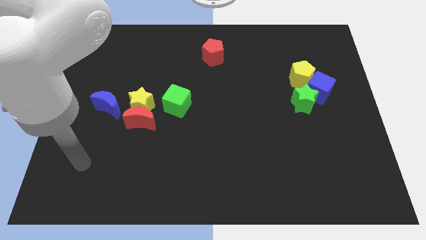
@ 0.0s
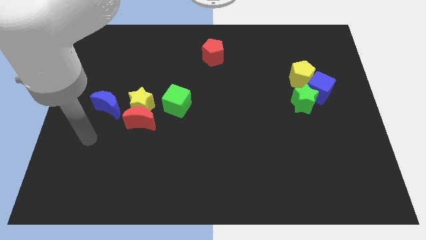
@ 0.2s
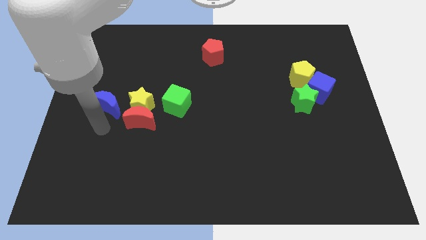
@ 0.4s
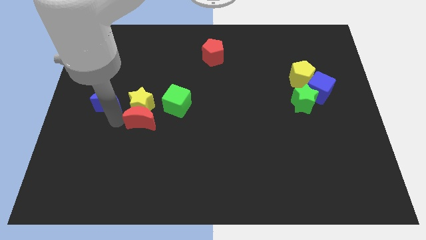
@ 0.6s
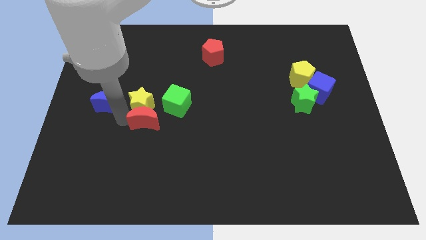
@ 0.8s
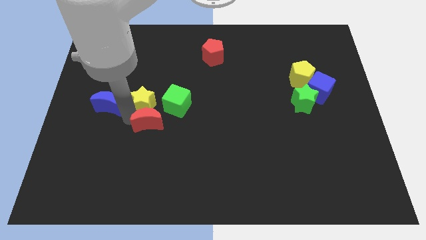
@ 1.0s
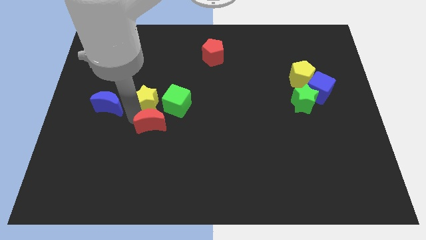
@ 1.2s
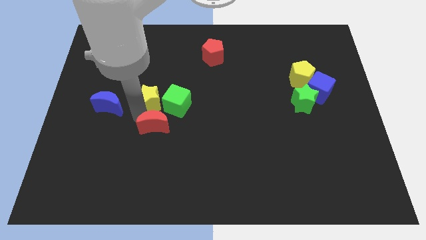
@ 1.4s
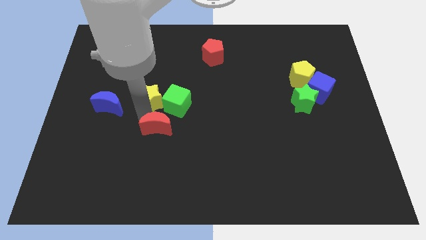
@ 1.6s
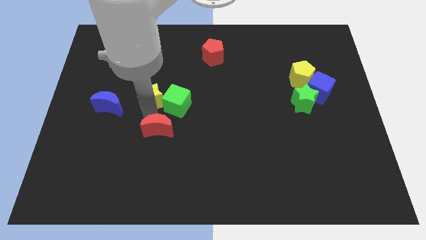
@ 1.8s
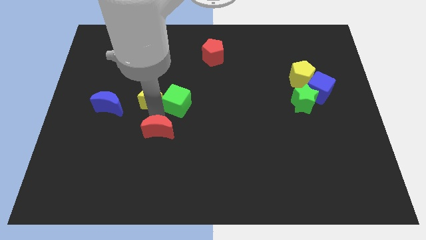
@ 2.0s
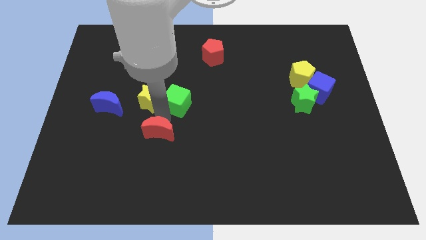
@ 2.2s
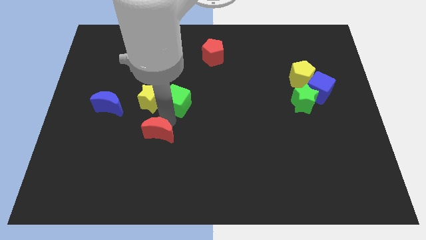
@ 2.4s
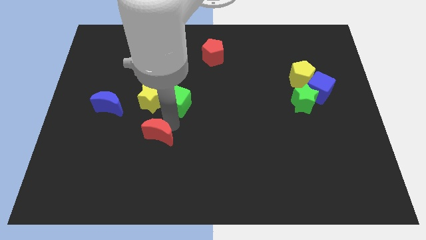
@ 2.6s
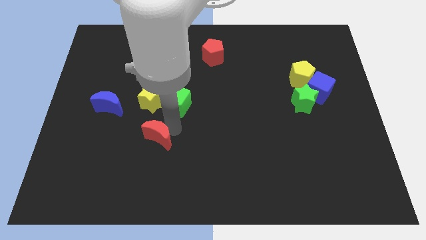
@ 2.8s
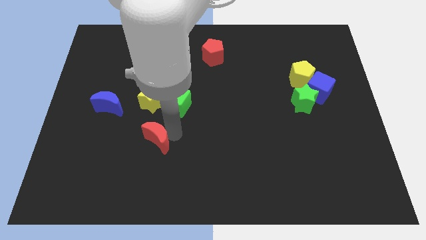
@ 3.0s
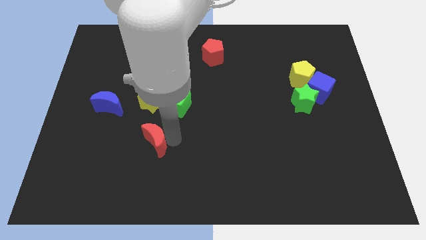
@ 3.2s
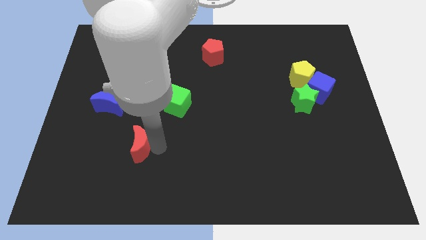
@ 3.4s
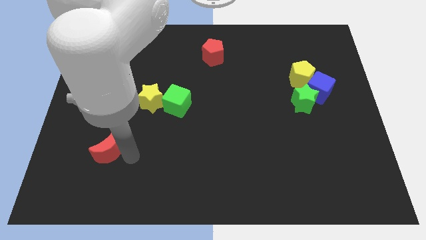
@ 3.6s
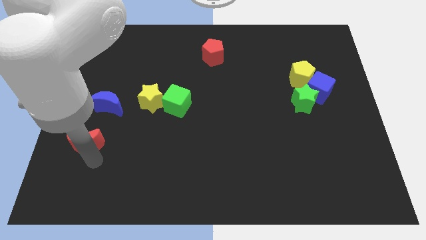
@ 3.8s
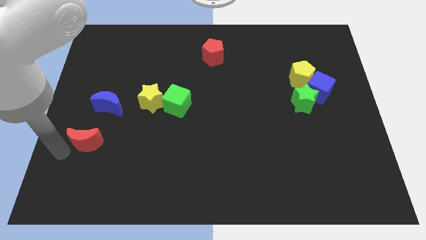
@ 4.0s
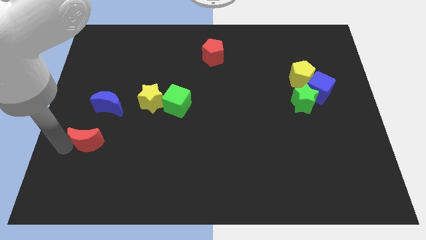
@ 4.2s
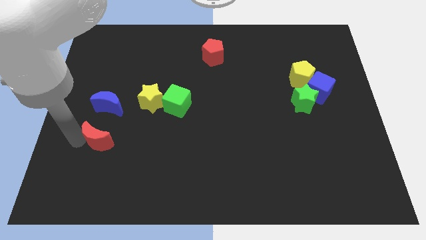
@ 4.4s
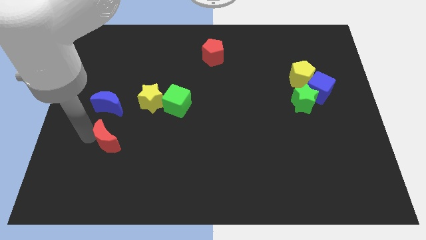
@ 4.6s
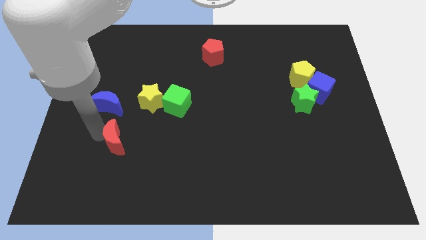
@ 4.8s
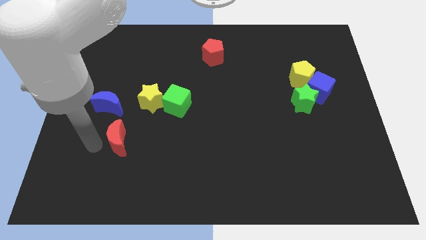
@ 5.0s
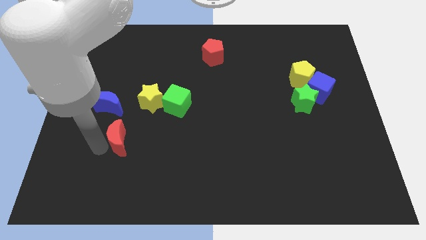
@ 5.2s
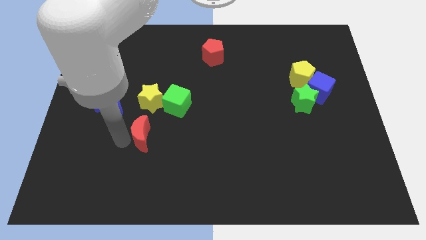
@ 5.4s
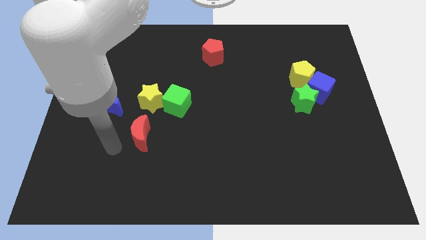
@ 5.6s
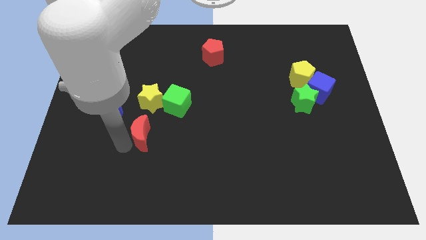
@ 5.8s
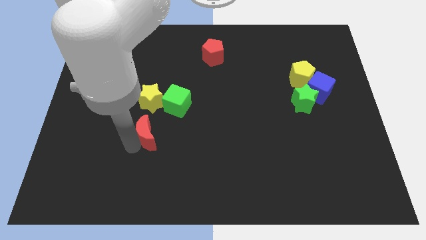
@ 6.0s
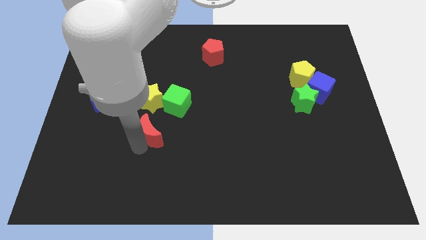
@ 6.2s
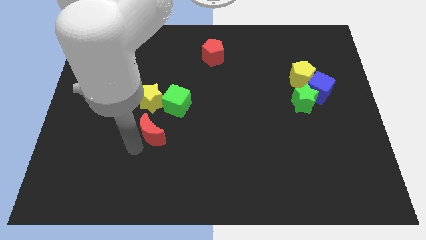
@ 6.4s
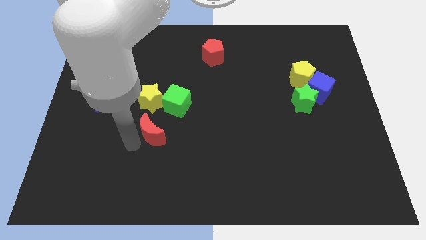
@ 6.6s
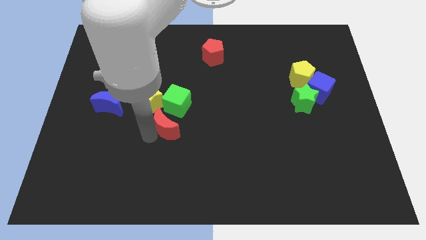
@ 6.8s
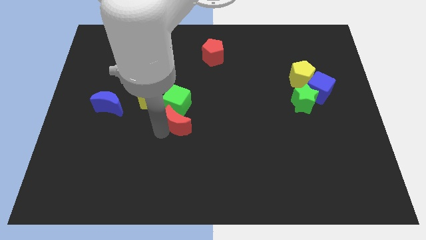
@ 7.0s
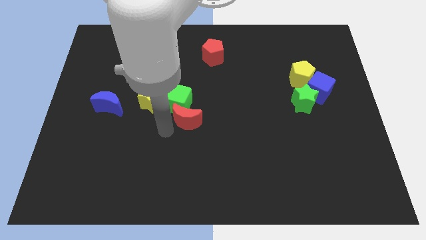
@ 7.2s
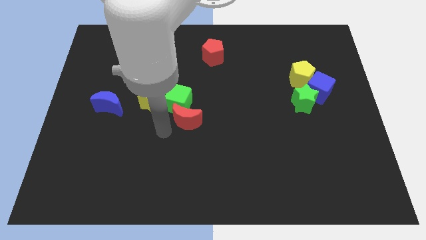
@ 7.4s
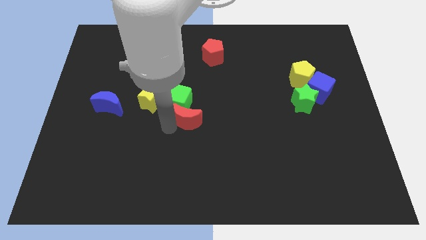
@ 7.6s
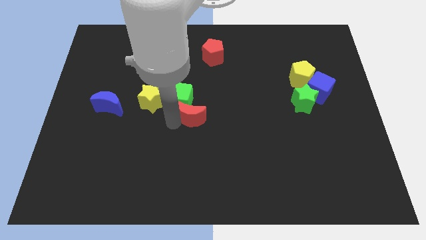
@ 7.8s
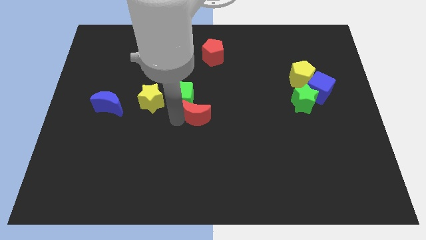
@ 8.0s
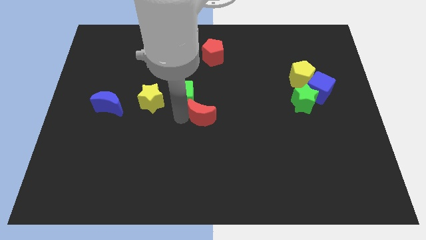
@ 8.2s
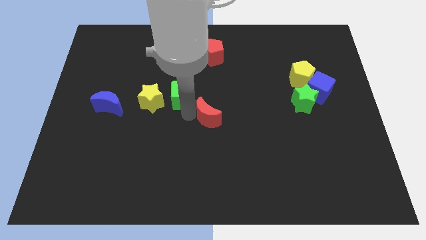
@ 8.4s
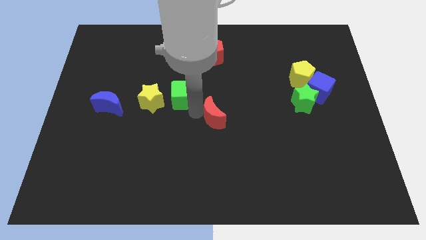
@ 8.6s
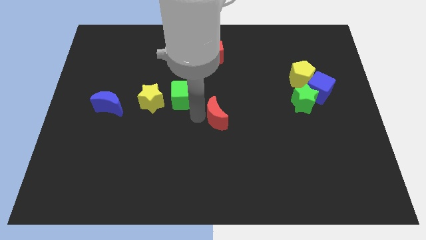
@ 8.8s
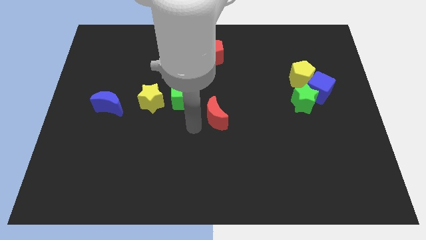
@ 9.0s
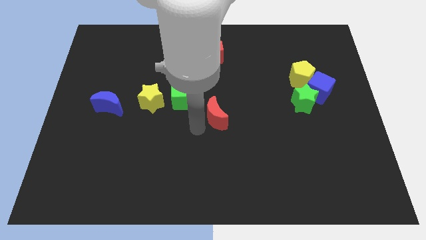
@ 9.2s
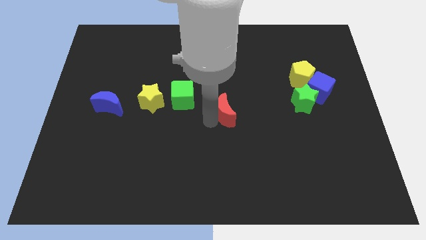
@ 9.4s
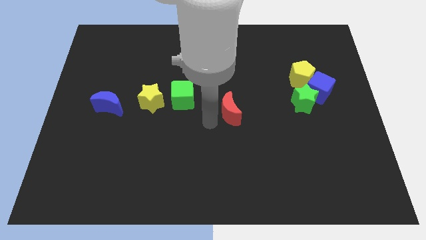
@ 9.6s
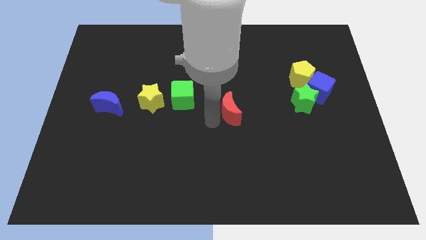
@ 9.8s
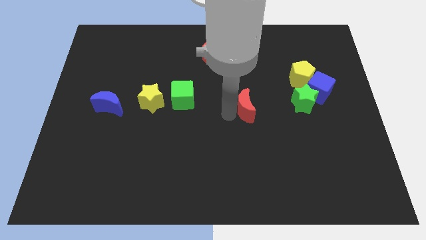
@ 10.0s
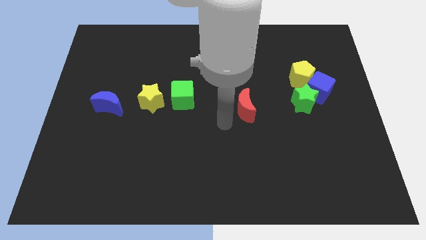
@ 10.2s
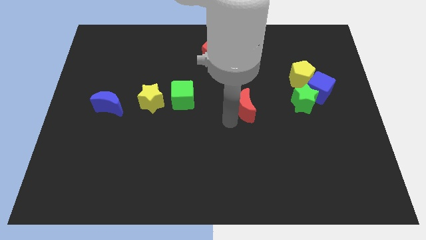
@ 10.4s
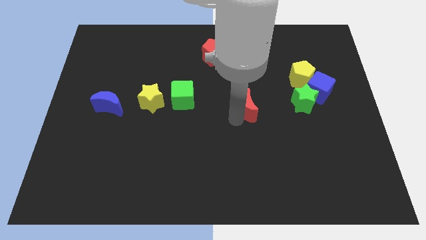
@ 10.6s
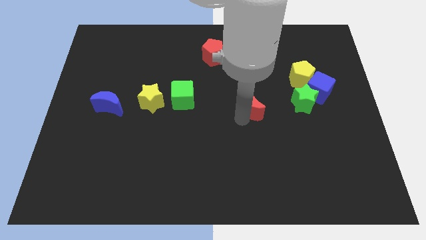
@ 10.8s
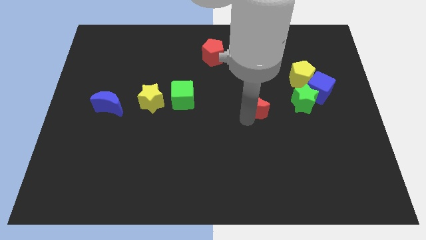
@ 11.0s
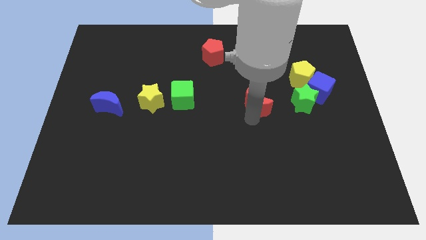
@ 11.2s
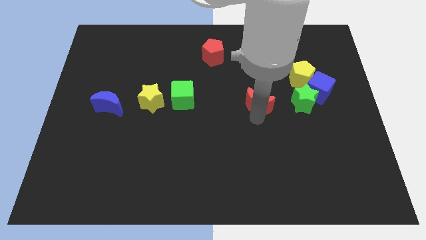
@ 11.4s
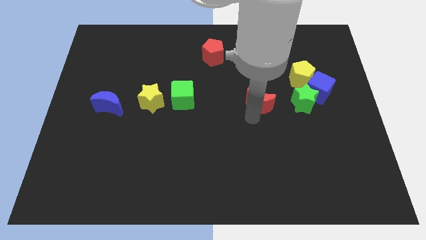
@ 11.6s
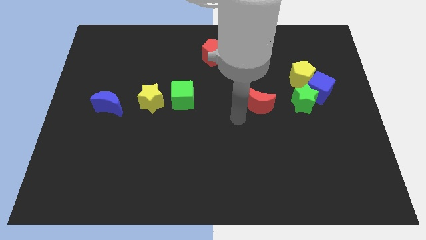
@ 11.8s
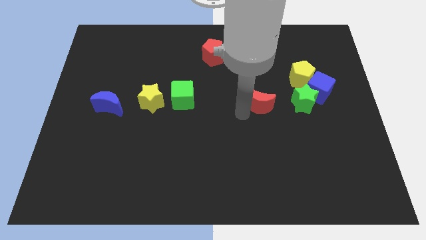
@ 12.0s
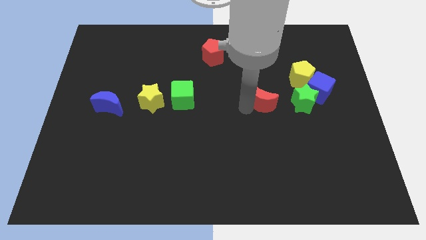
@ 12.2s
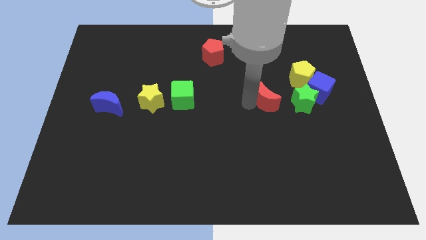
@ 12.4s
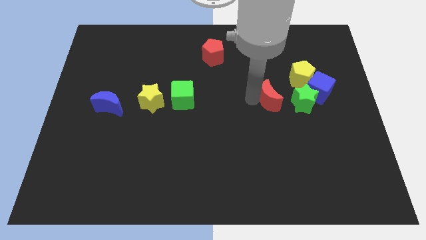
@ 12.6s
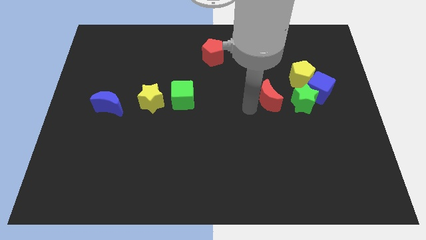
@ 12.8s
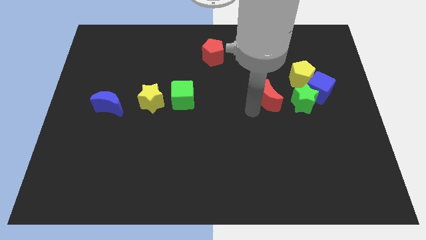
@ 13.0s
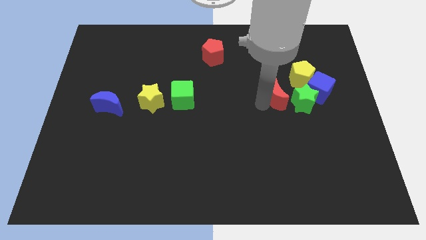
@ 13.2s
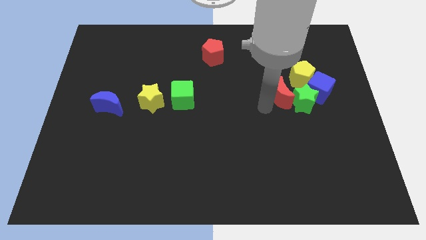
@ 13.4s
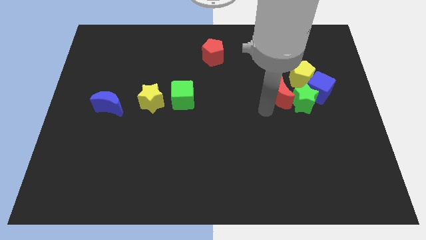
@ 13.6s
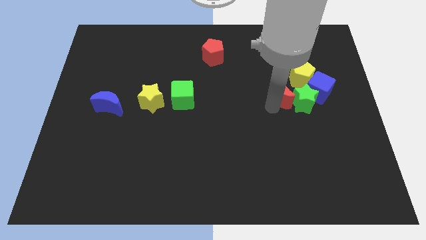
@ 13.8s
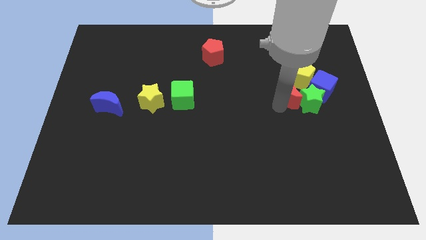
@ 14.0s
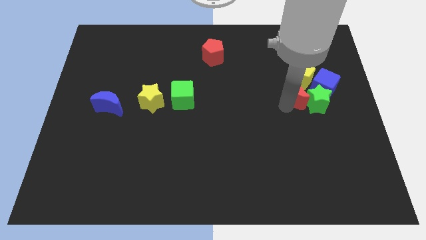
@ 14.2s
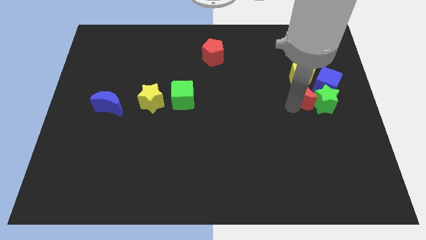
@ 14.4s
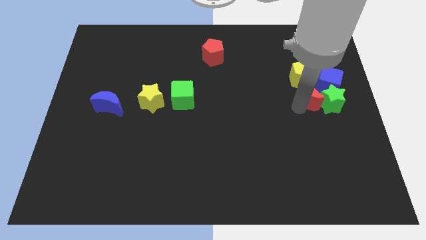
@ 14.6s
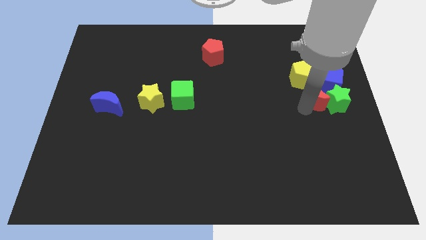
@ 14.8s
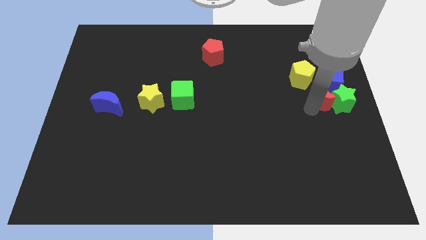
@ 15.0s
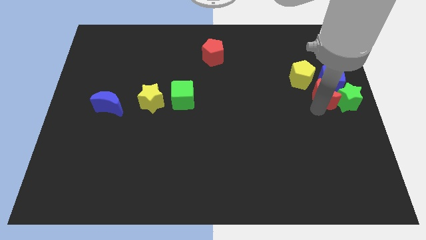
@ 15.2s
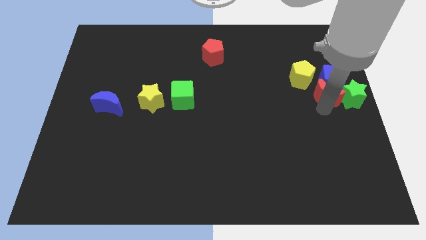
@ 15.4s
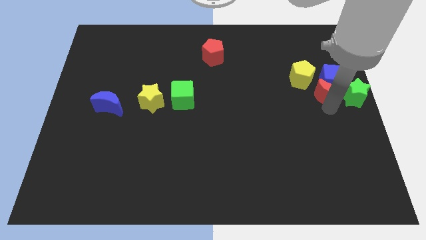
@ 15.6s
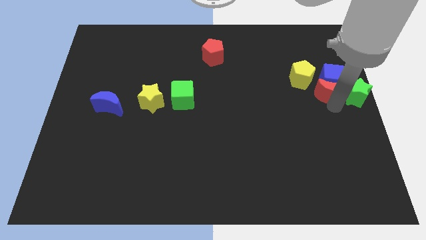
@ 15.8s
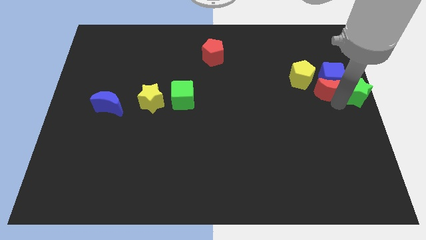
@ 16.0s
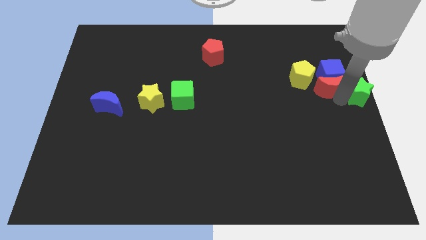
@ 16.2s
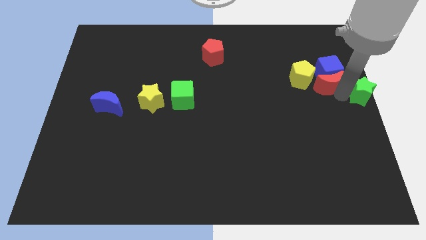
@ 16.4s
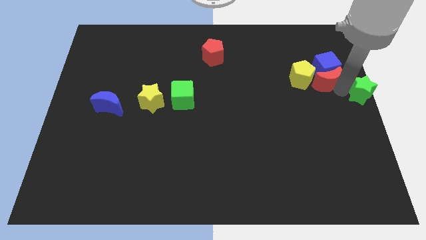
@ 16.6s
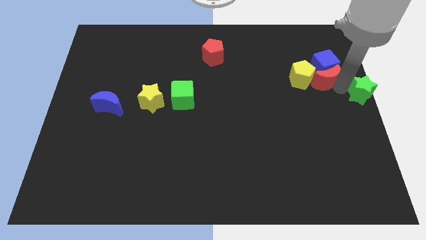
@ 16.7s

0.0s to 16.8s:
put the red moon towards the yellow pentagon
